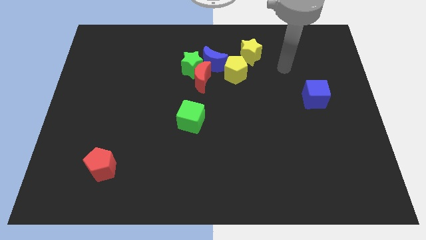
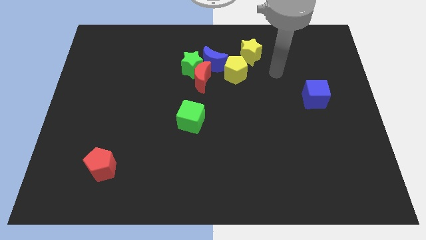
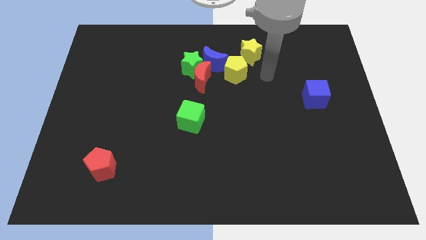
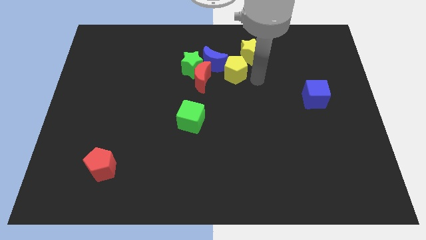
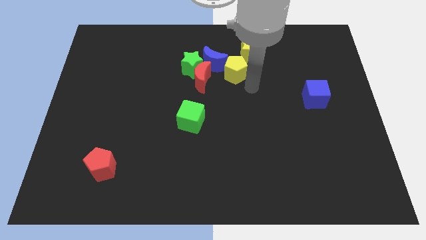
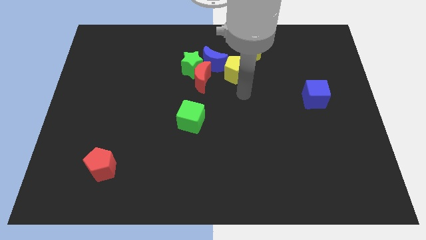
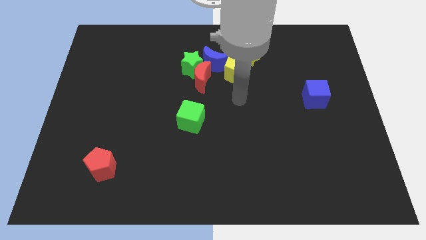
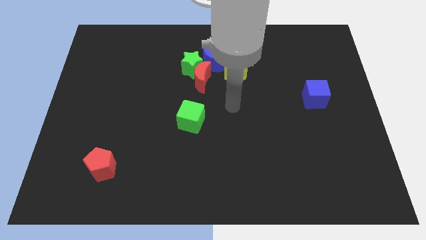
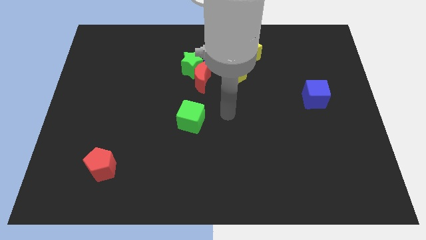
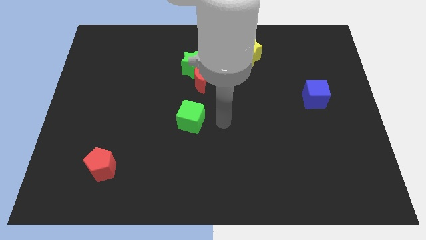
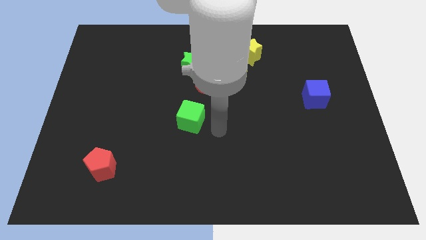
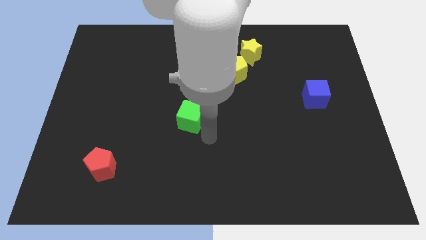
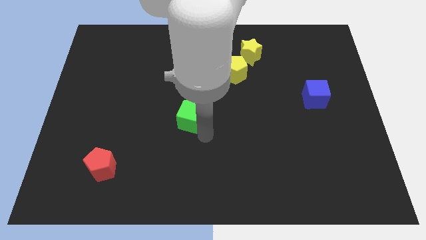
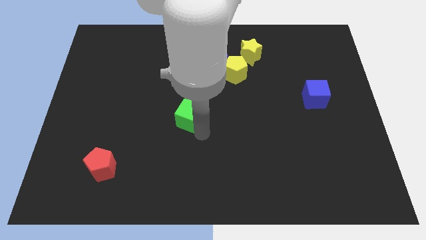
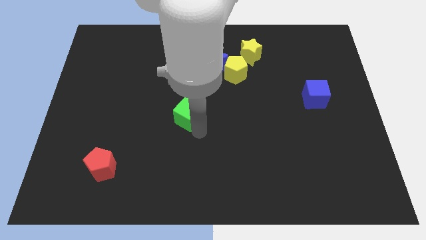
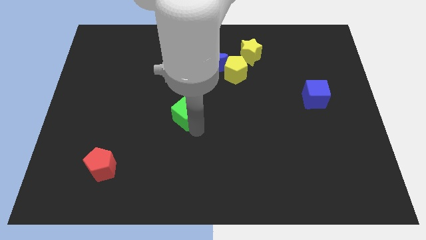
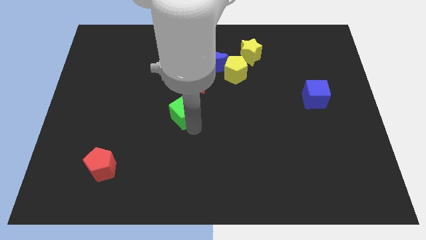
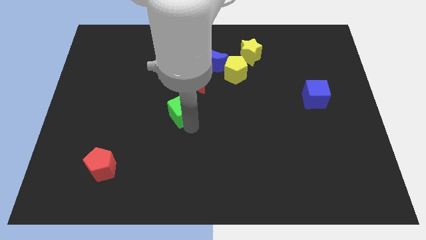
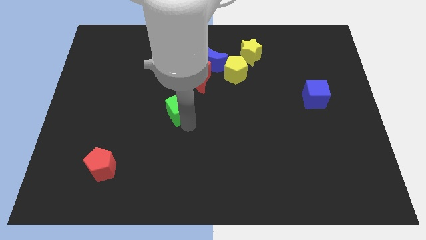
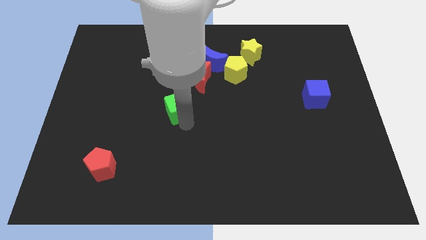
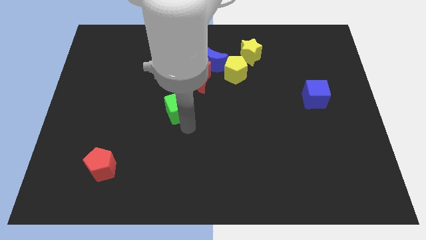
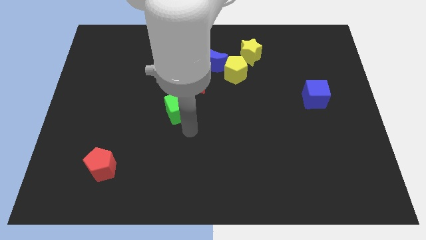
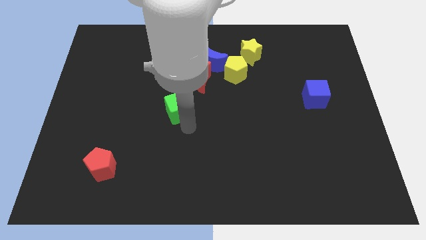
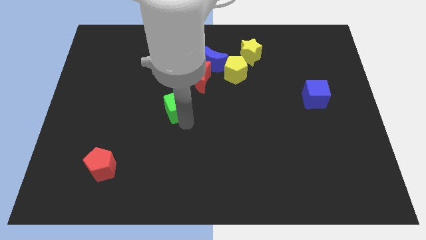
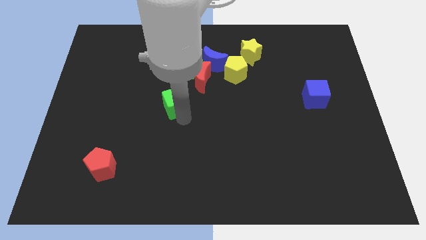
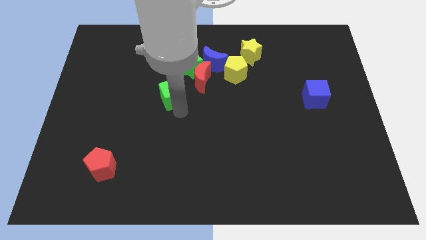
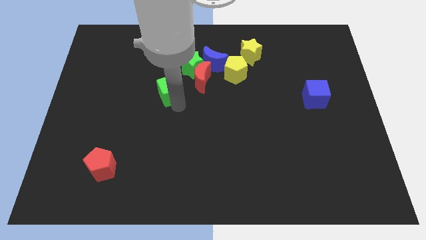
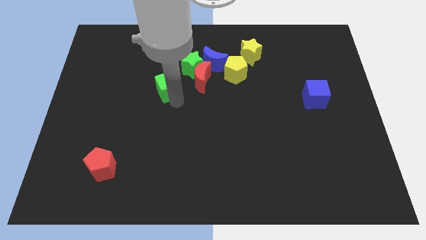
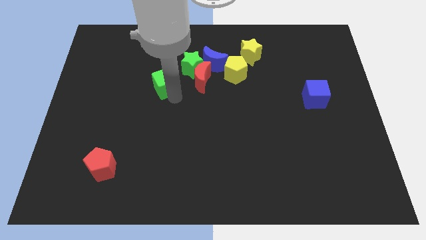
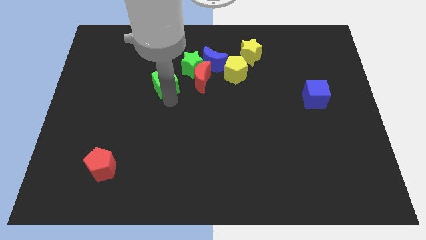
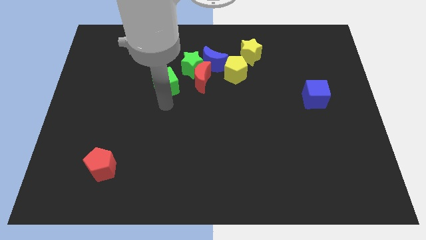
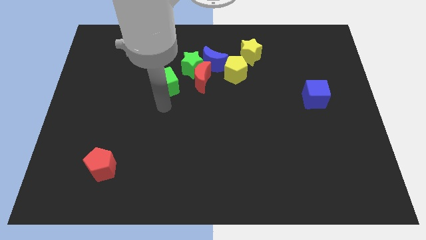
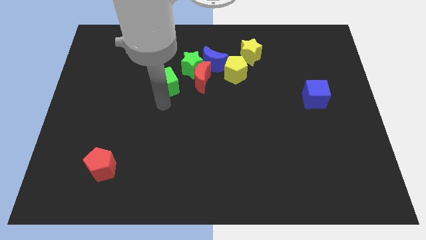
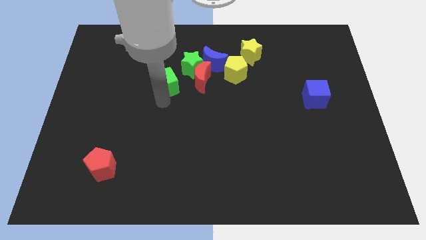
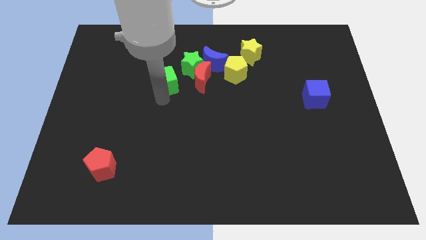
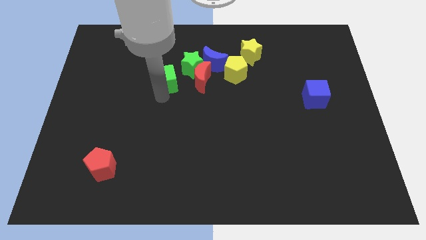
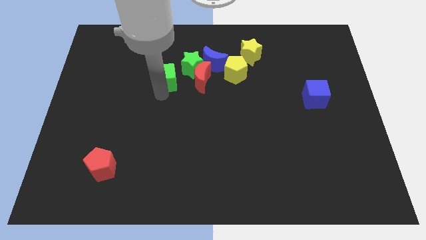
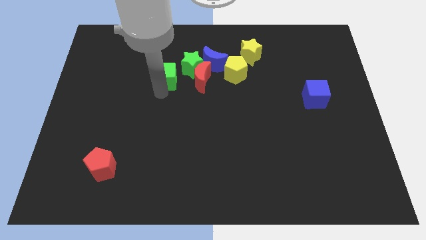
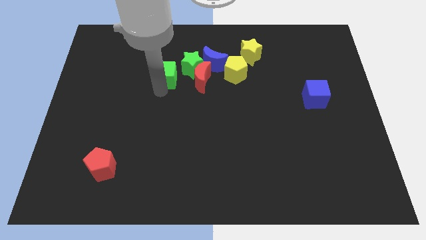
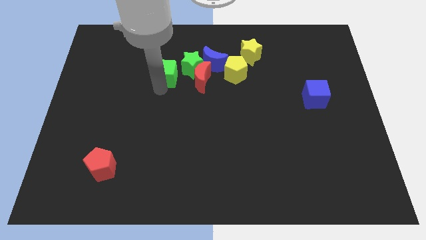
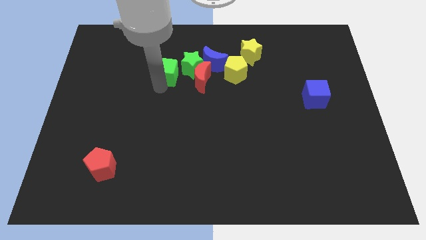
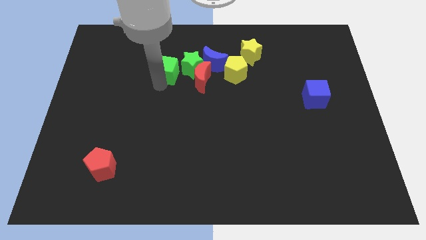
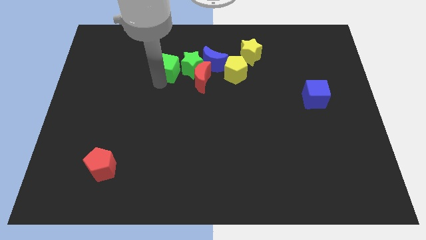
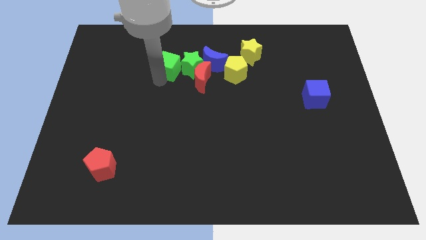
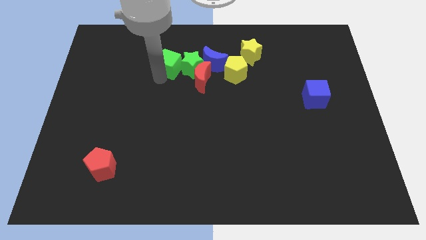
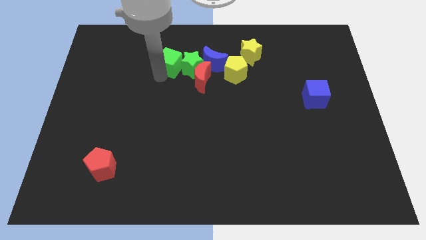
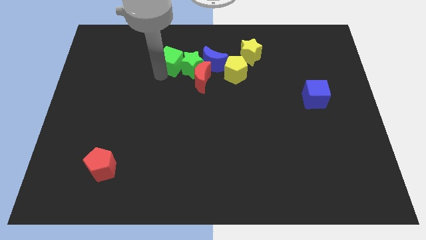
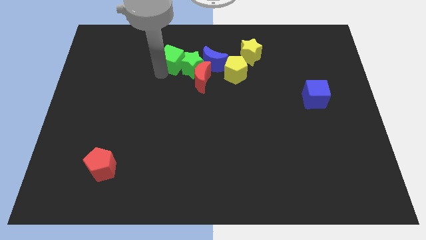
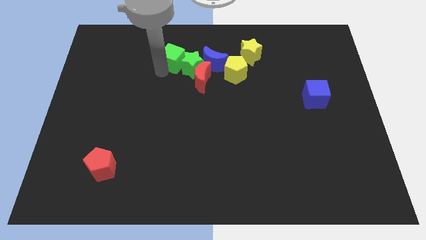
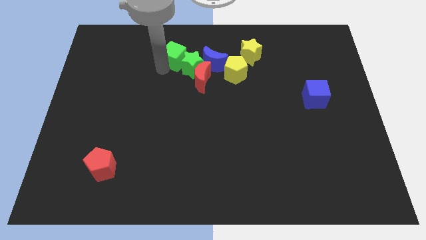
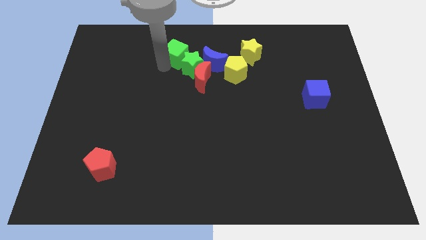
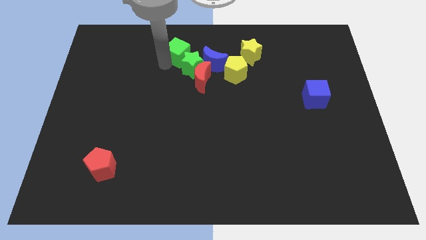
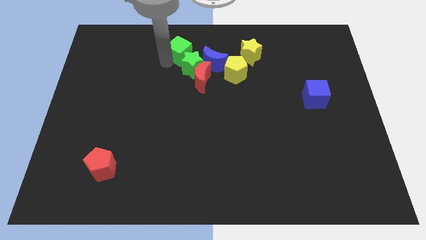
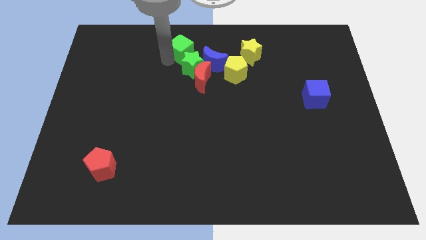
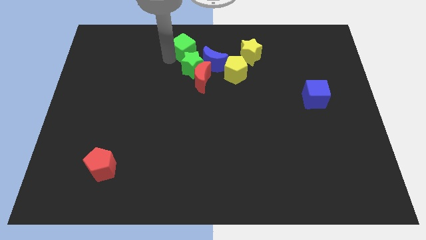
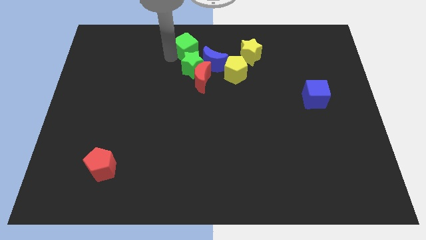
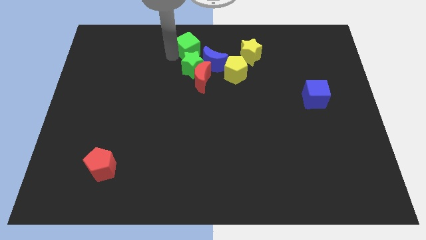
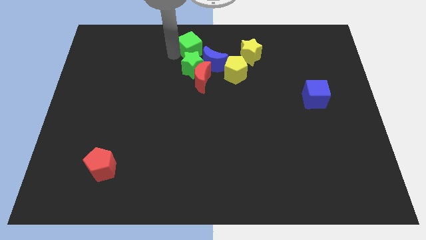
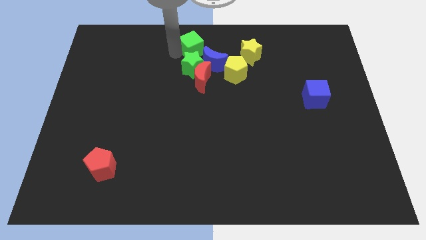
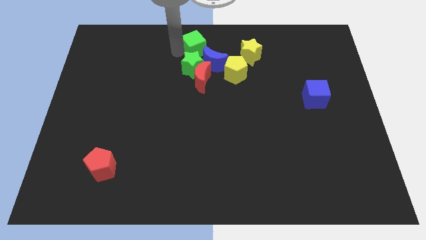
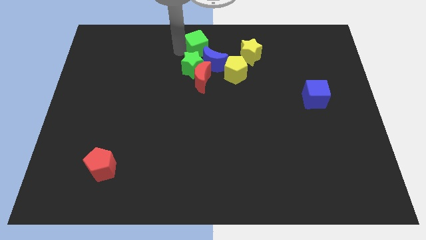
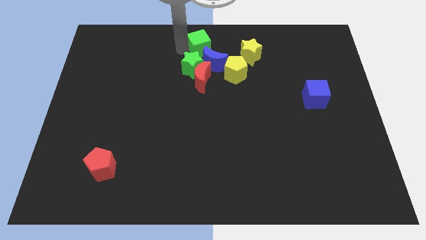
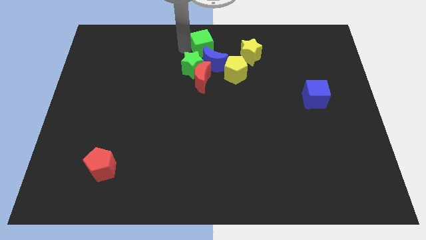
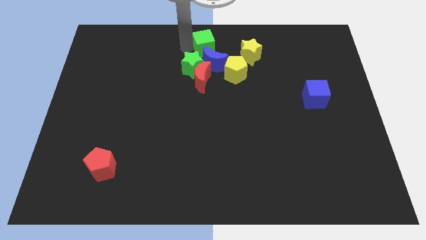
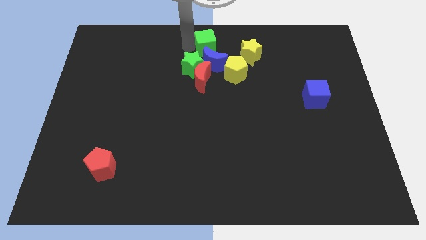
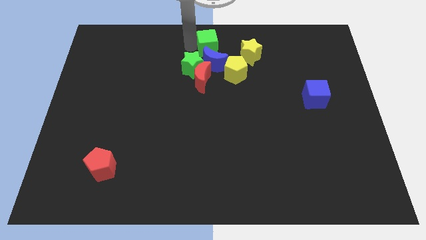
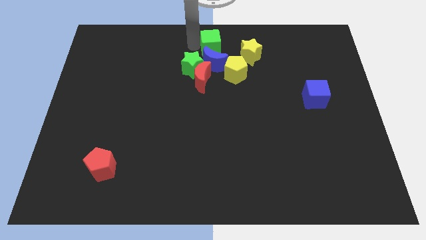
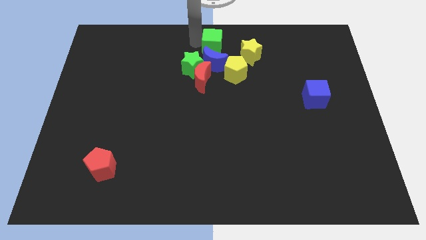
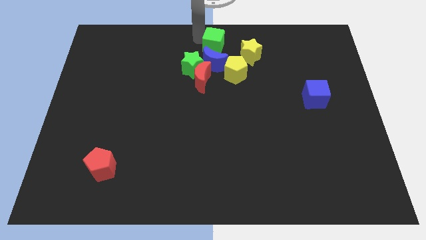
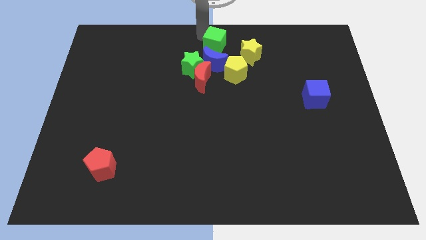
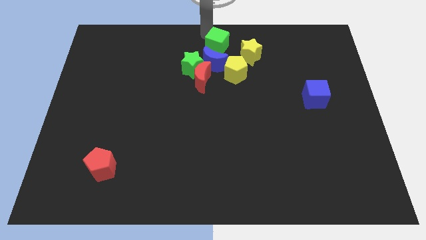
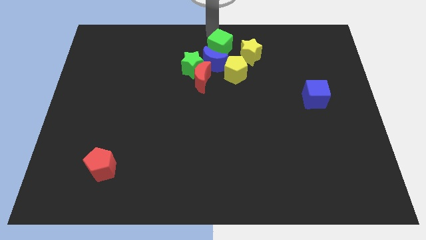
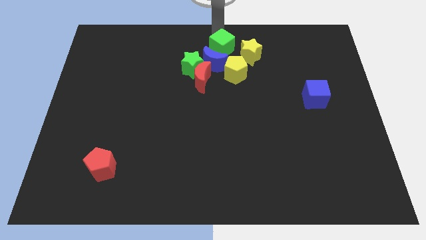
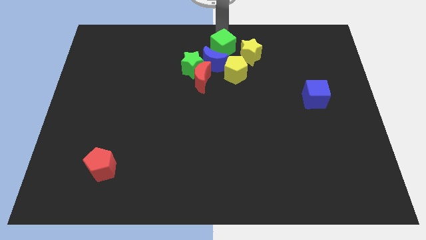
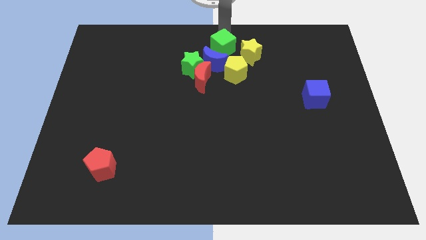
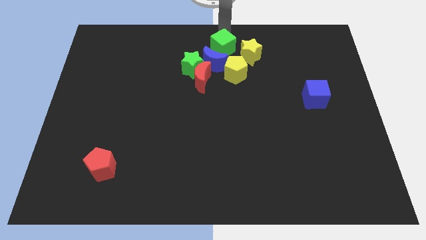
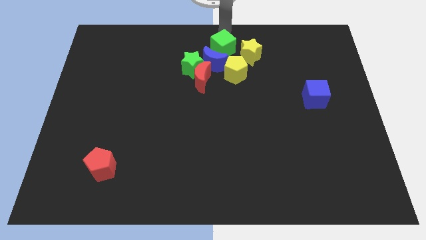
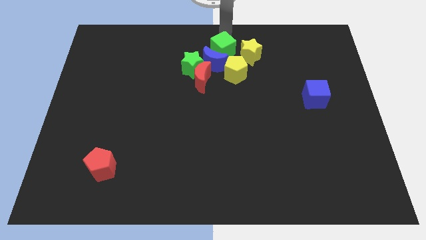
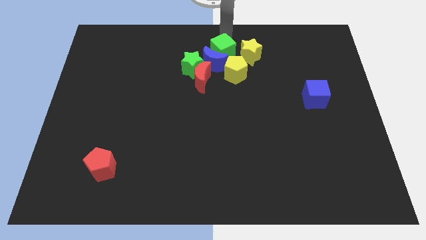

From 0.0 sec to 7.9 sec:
put the green cube to the top right of the red moon
